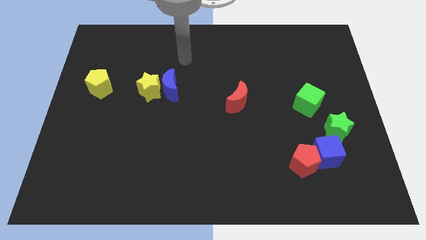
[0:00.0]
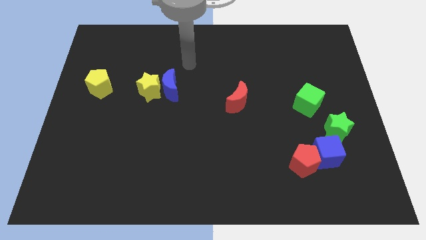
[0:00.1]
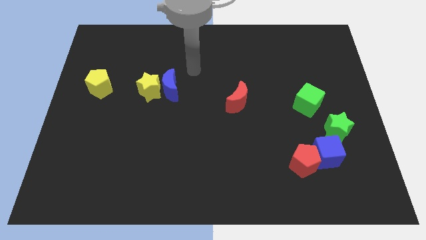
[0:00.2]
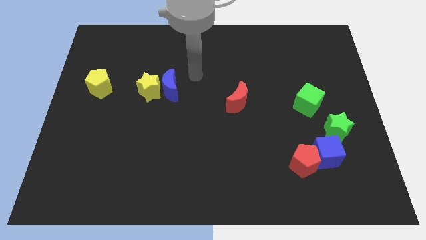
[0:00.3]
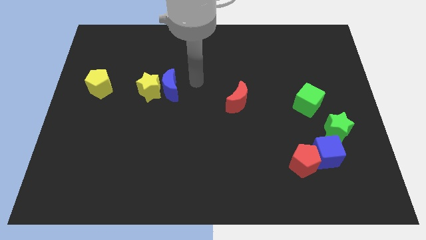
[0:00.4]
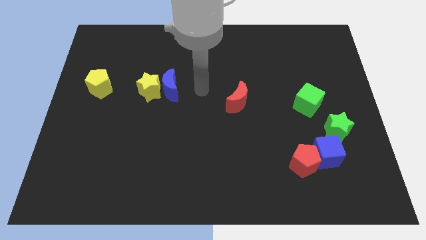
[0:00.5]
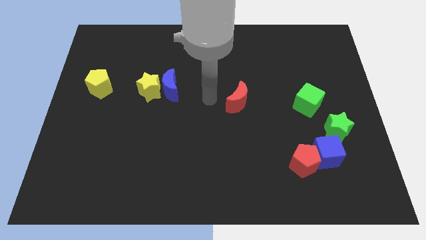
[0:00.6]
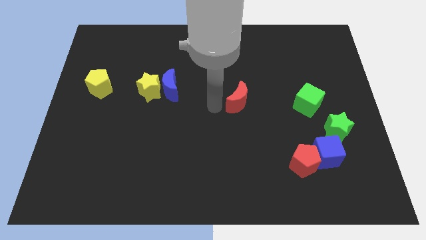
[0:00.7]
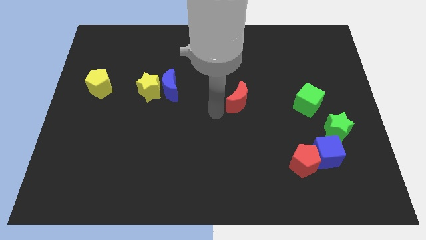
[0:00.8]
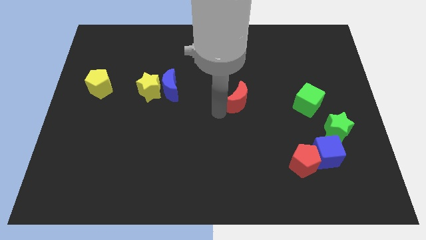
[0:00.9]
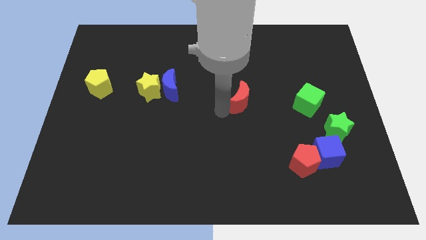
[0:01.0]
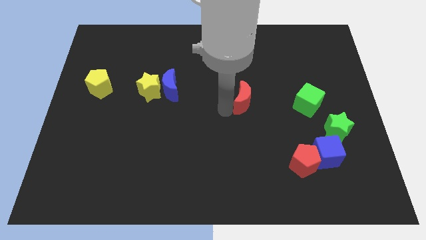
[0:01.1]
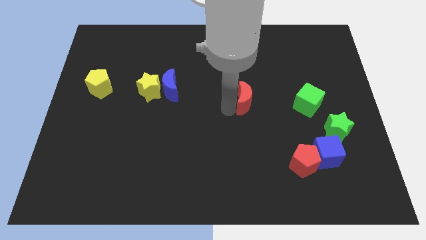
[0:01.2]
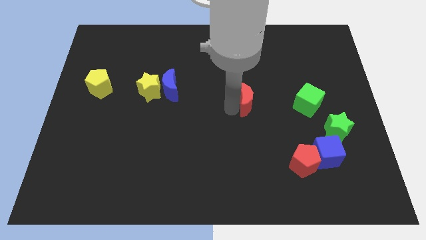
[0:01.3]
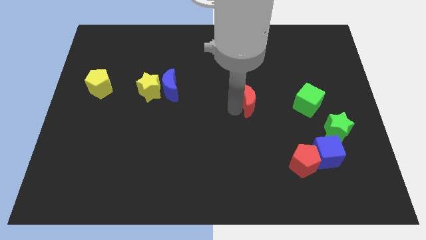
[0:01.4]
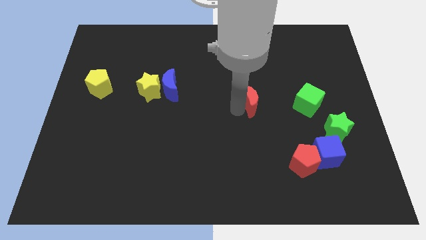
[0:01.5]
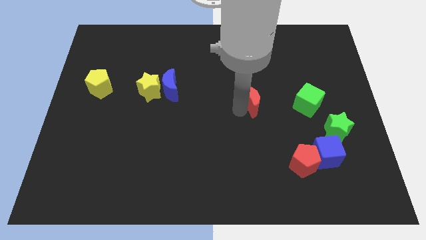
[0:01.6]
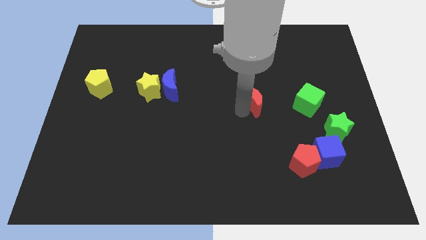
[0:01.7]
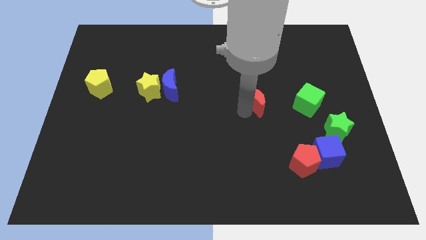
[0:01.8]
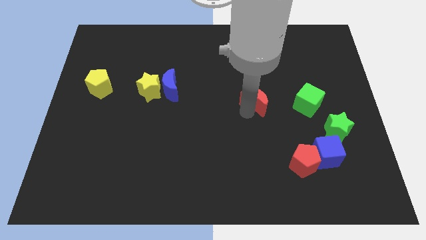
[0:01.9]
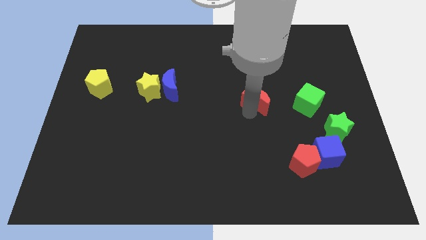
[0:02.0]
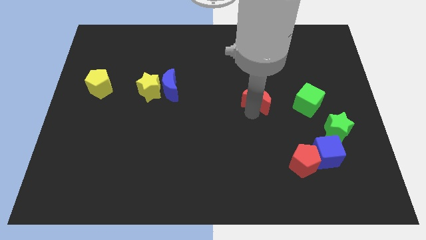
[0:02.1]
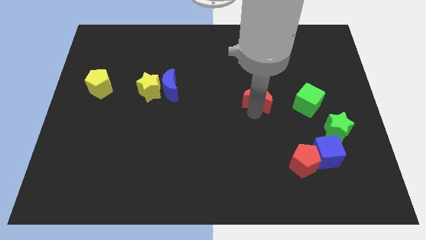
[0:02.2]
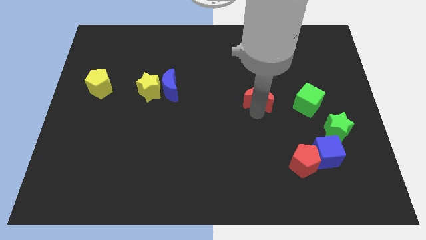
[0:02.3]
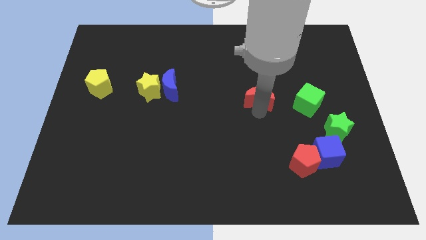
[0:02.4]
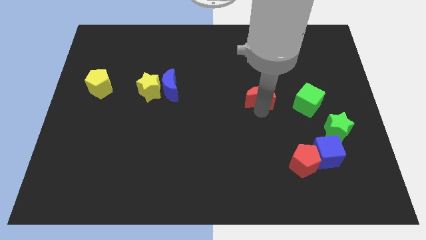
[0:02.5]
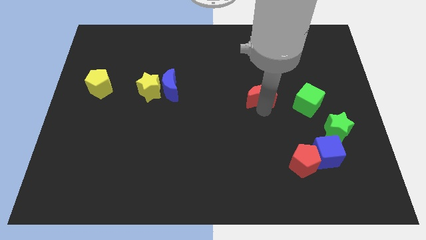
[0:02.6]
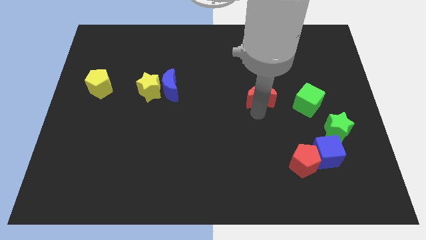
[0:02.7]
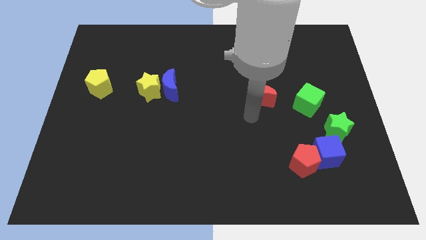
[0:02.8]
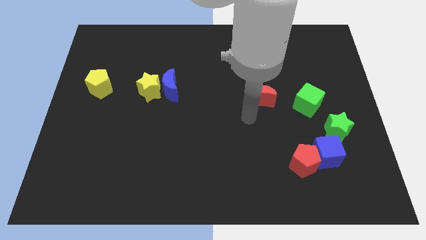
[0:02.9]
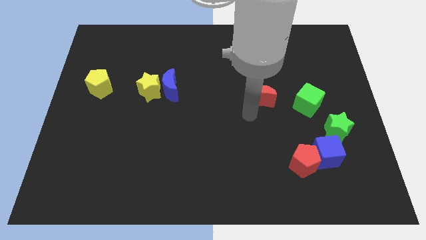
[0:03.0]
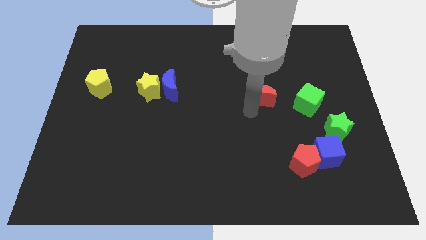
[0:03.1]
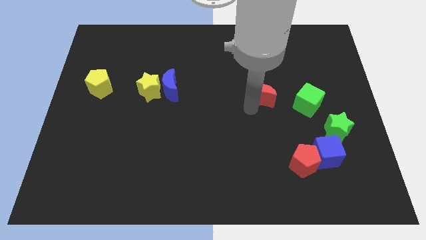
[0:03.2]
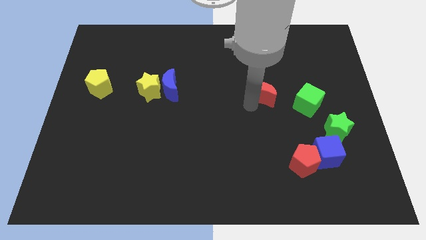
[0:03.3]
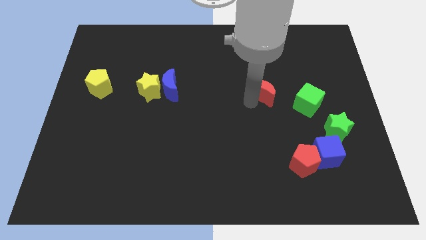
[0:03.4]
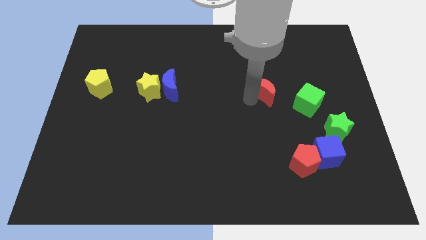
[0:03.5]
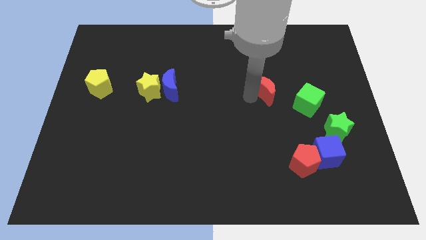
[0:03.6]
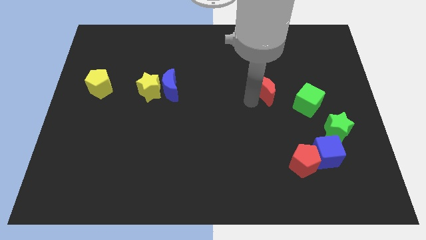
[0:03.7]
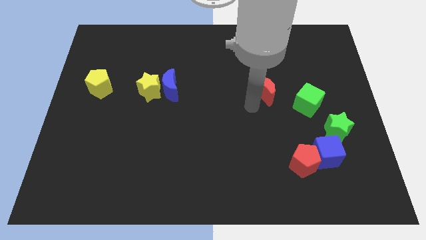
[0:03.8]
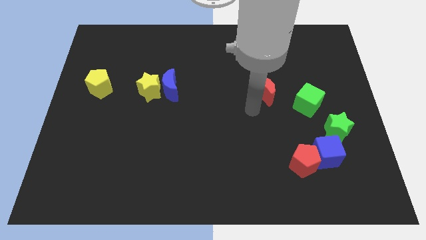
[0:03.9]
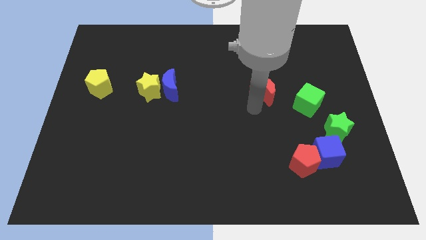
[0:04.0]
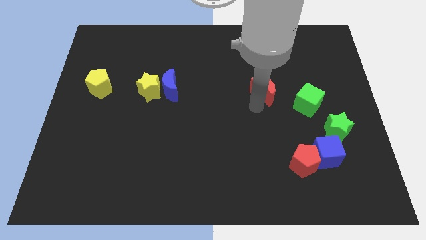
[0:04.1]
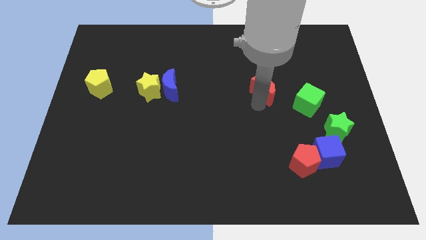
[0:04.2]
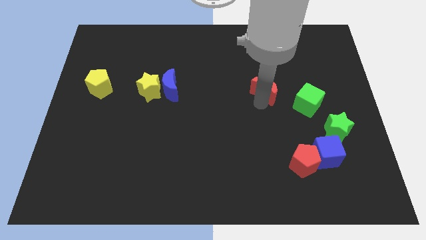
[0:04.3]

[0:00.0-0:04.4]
push the red moon upwards and right a bit

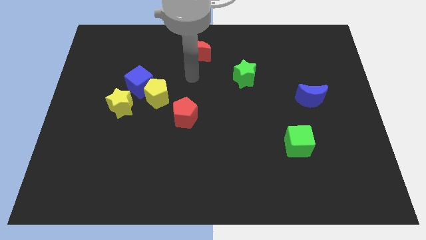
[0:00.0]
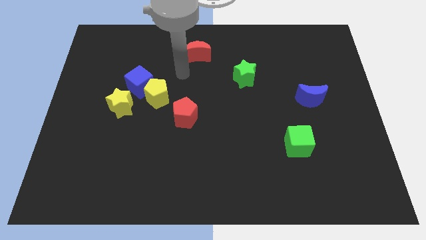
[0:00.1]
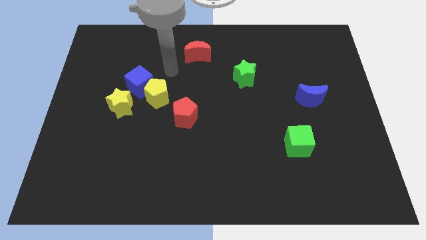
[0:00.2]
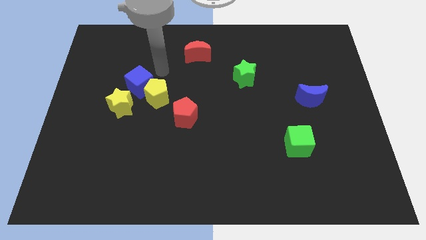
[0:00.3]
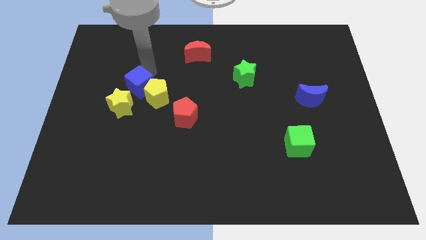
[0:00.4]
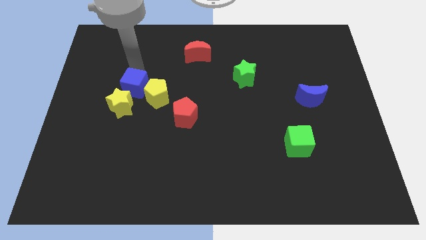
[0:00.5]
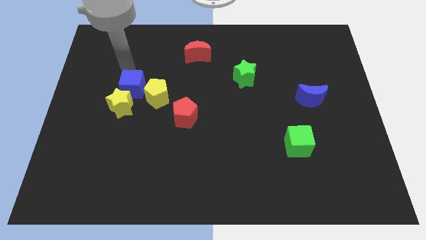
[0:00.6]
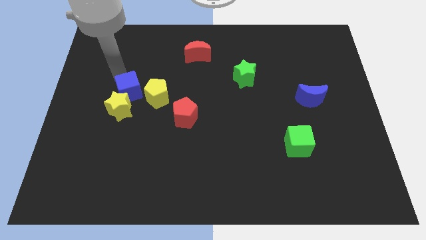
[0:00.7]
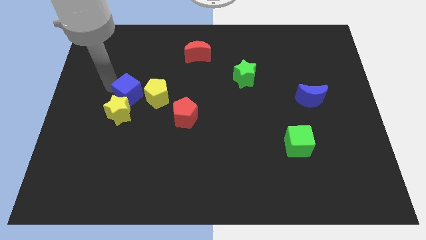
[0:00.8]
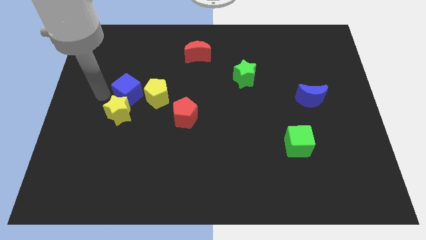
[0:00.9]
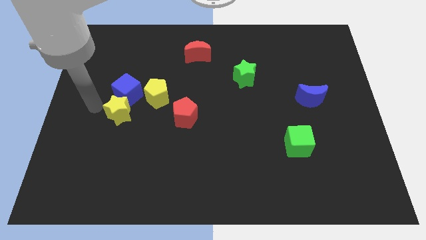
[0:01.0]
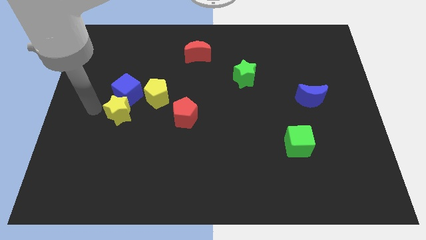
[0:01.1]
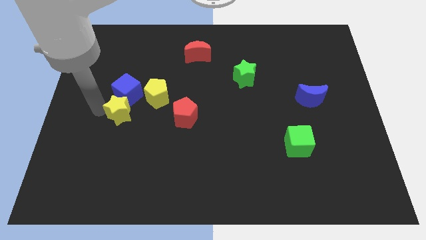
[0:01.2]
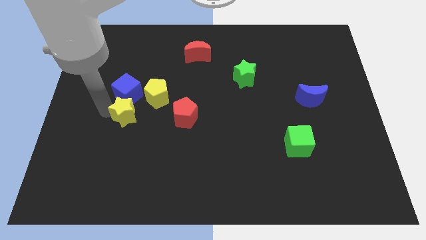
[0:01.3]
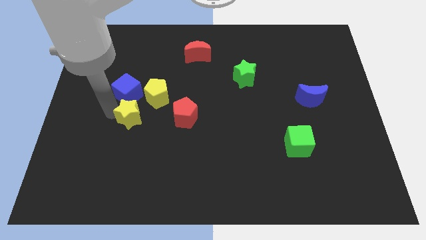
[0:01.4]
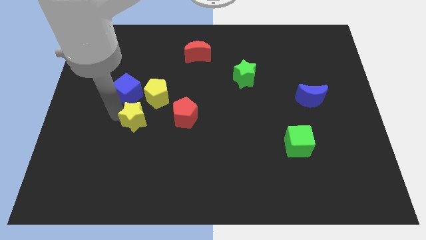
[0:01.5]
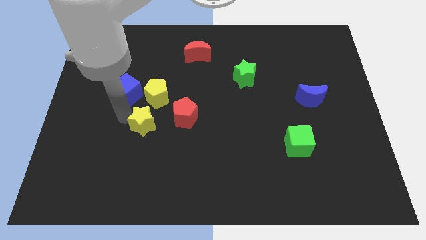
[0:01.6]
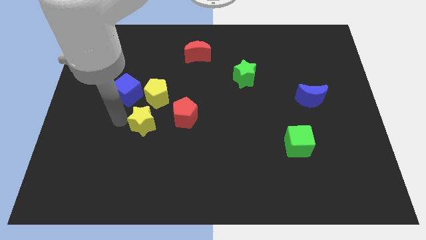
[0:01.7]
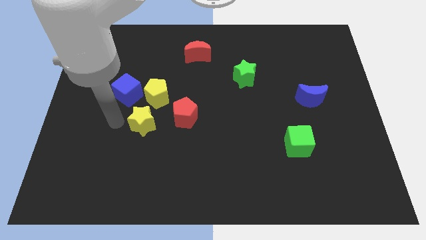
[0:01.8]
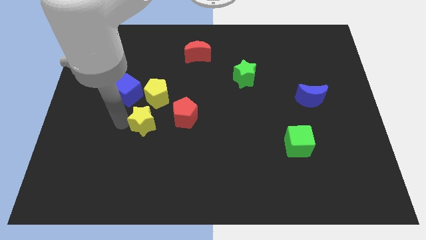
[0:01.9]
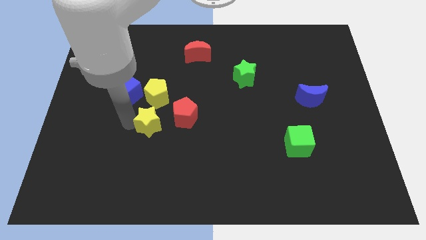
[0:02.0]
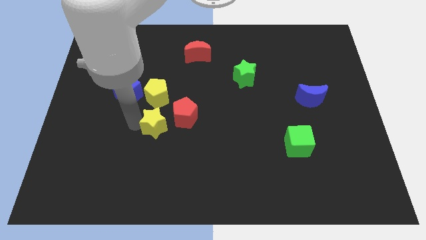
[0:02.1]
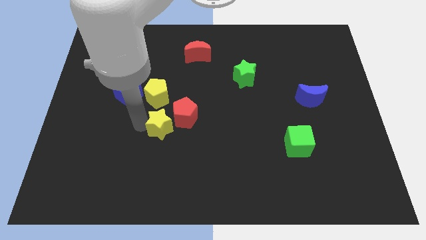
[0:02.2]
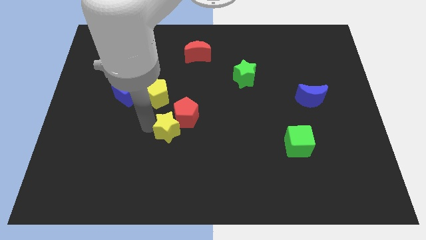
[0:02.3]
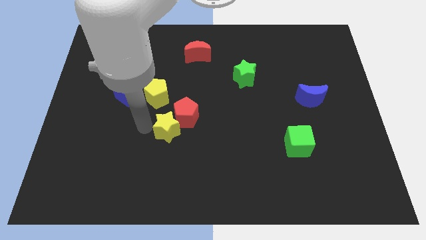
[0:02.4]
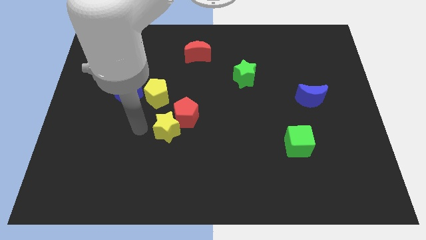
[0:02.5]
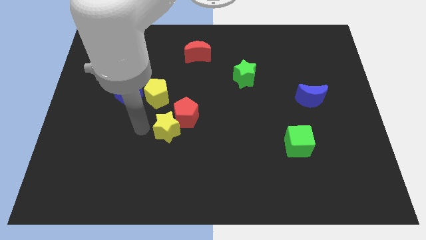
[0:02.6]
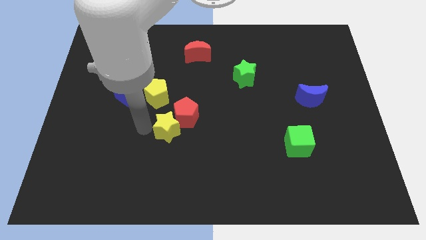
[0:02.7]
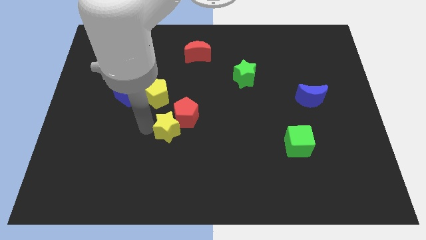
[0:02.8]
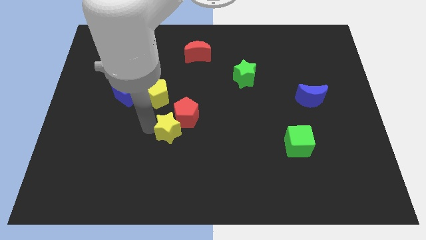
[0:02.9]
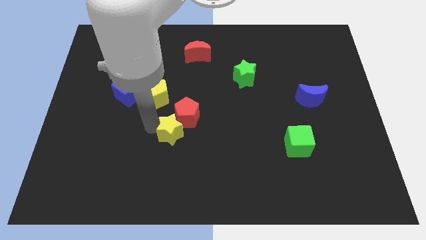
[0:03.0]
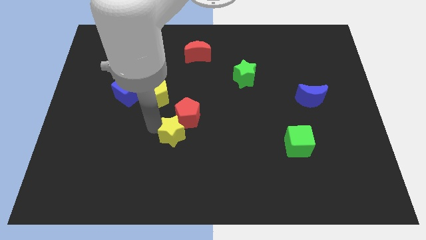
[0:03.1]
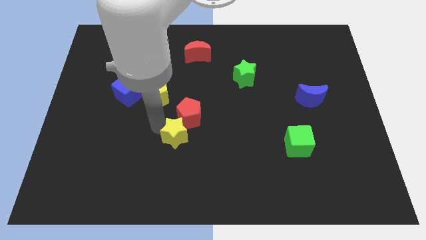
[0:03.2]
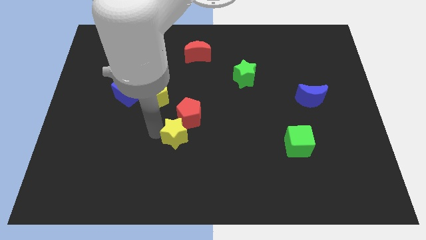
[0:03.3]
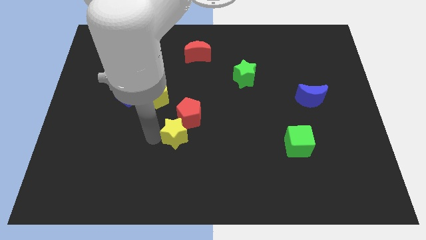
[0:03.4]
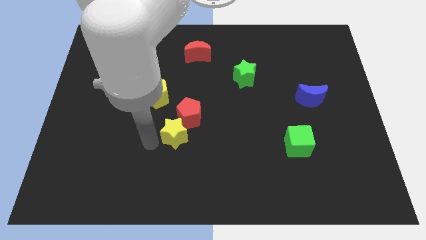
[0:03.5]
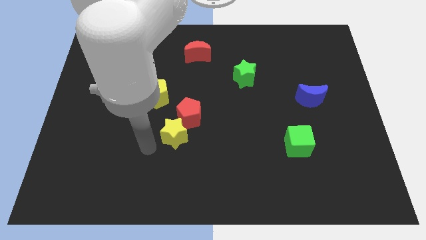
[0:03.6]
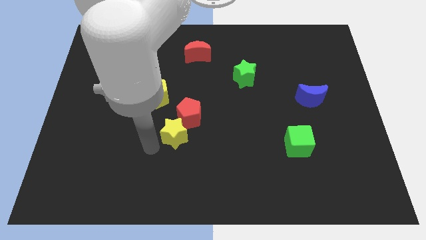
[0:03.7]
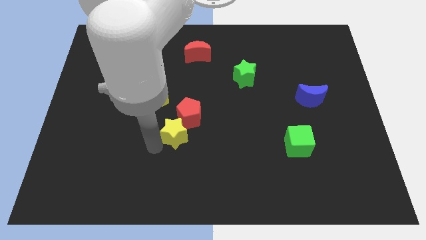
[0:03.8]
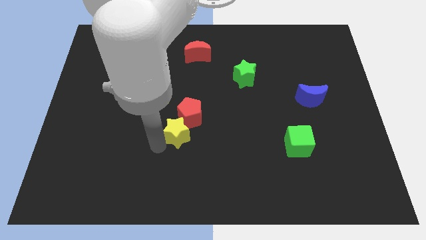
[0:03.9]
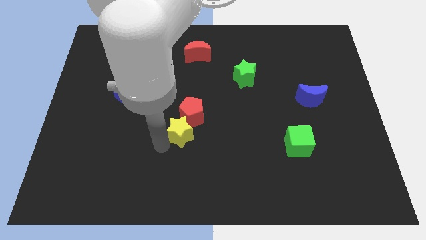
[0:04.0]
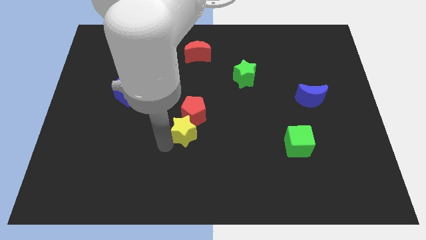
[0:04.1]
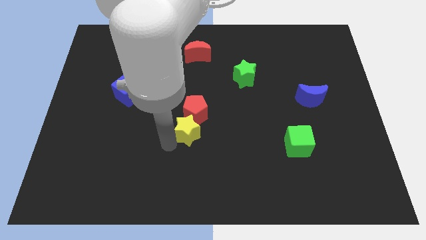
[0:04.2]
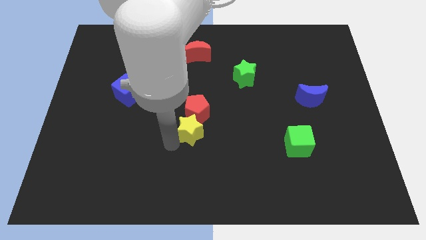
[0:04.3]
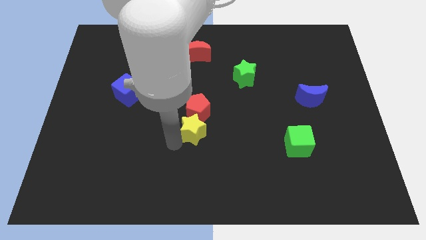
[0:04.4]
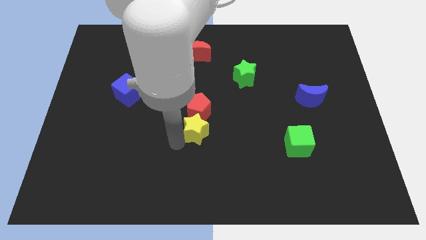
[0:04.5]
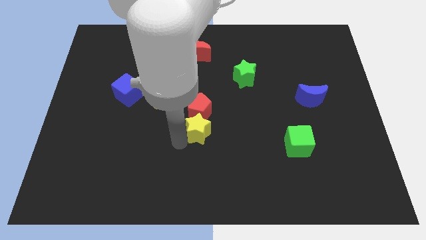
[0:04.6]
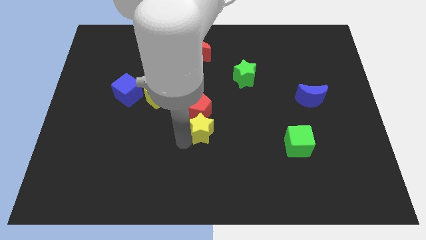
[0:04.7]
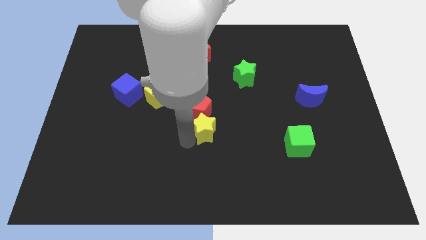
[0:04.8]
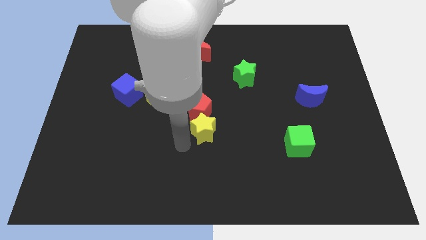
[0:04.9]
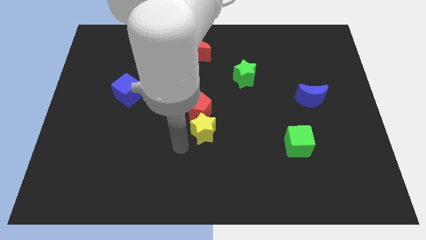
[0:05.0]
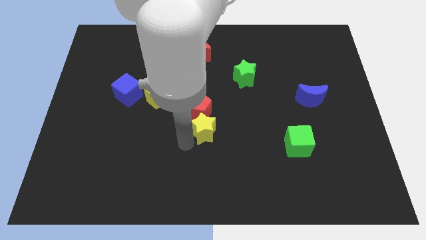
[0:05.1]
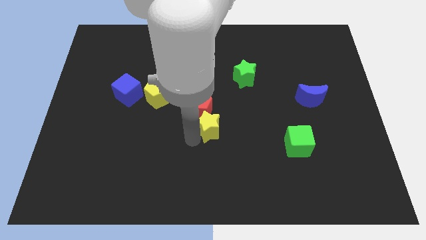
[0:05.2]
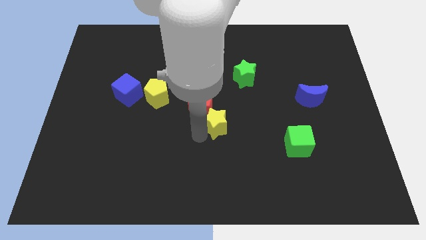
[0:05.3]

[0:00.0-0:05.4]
push the yellow star to the right
